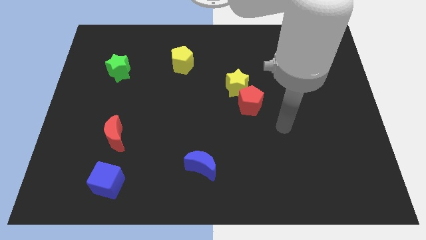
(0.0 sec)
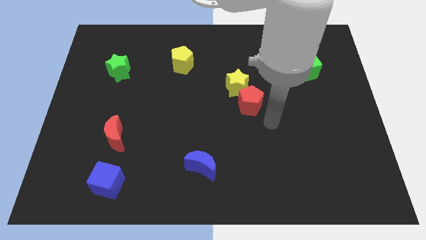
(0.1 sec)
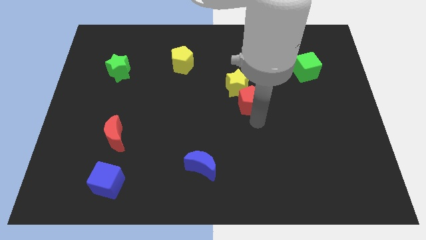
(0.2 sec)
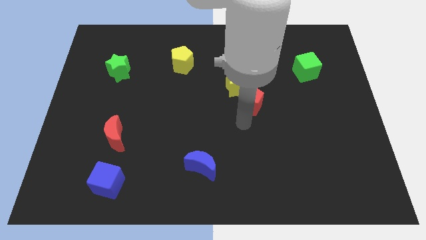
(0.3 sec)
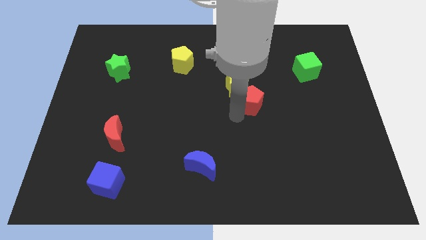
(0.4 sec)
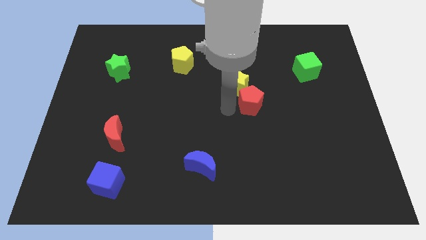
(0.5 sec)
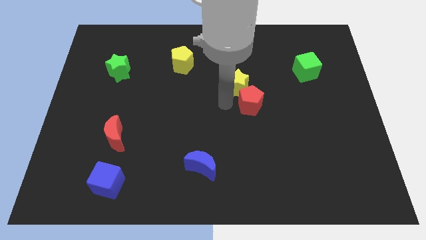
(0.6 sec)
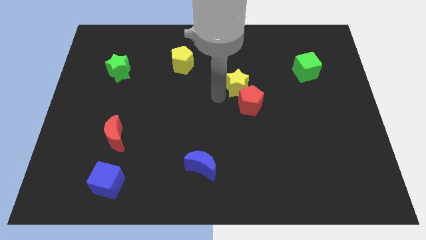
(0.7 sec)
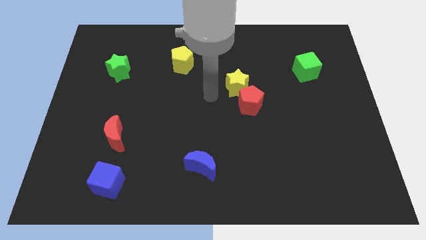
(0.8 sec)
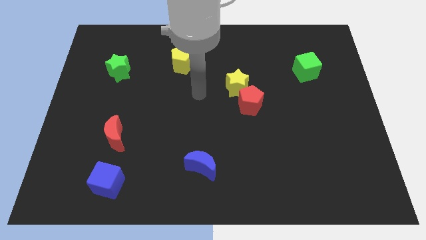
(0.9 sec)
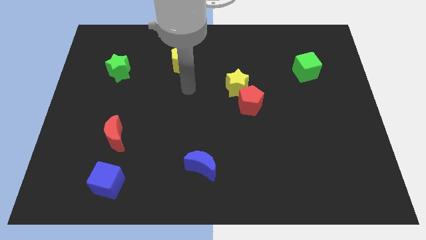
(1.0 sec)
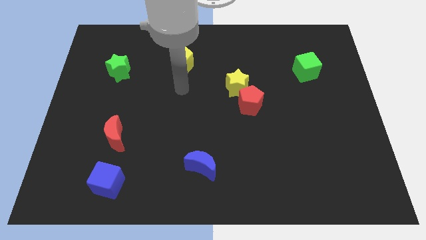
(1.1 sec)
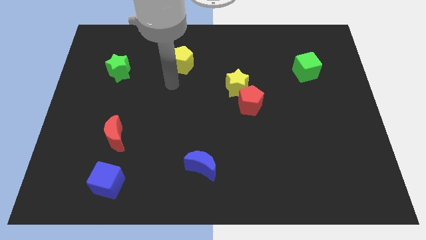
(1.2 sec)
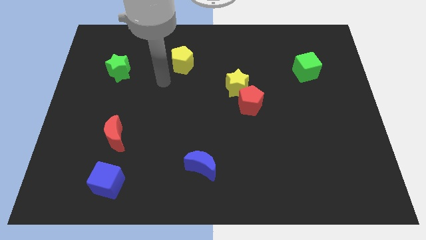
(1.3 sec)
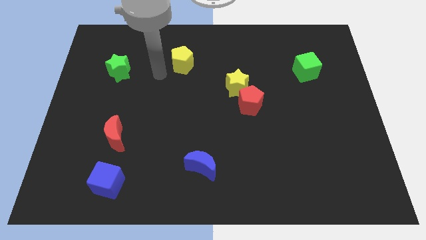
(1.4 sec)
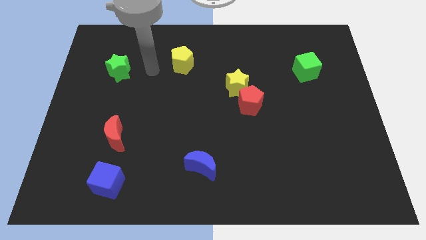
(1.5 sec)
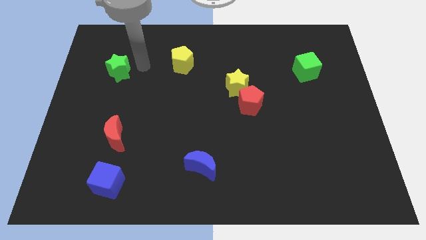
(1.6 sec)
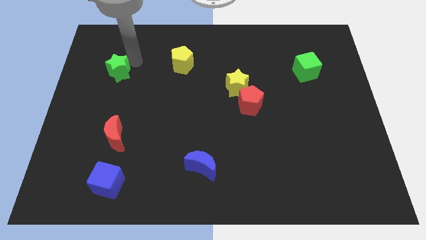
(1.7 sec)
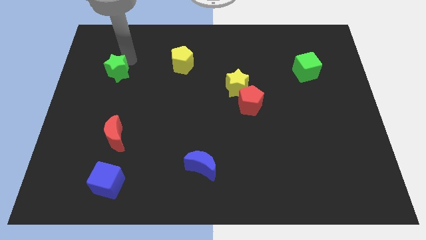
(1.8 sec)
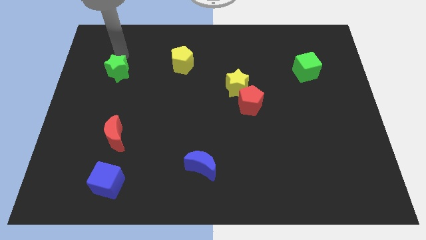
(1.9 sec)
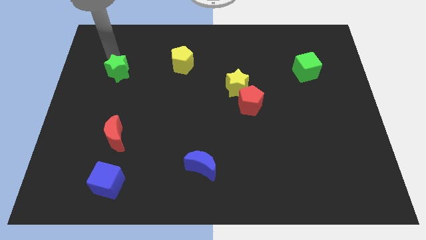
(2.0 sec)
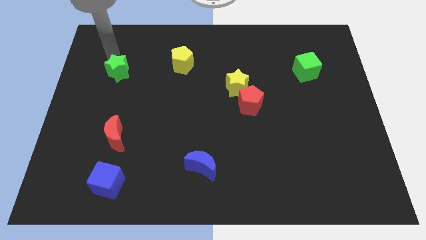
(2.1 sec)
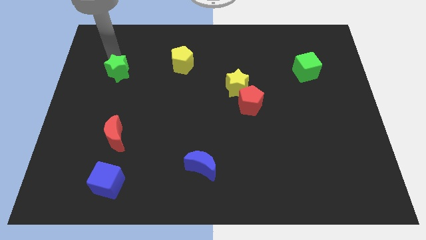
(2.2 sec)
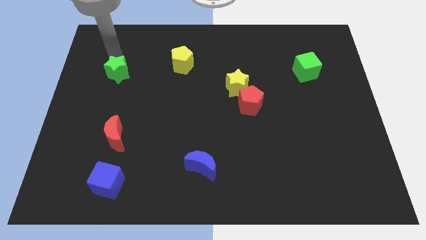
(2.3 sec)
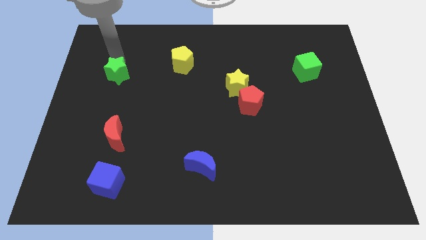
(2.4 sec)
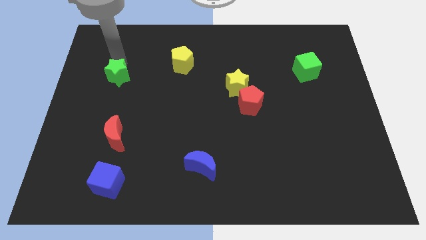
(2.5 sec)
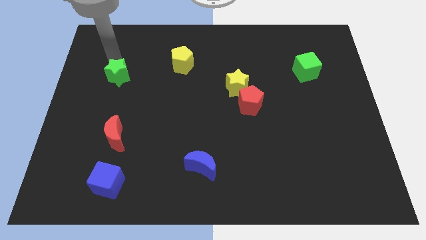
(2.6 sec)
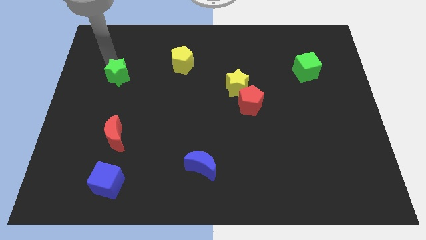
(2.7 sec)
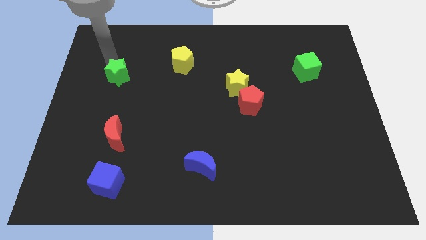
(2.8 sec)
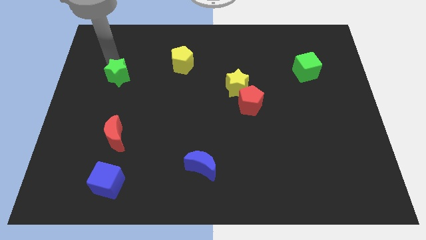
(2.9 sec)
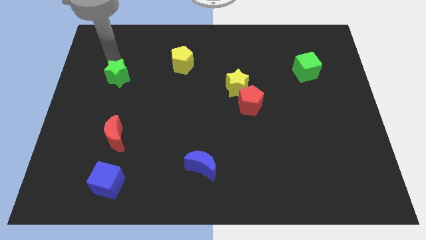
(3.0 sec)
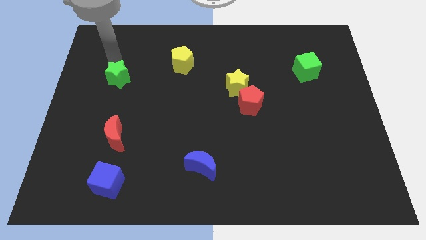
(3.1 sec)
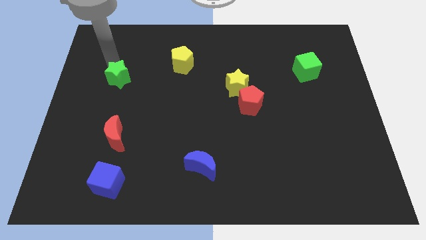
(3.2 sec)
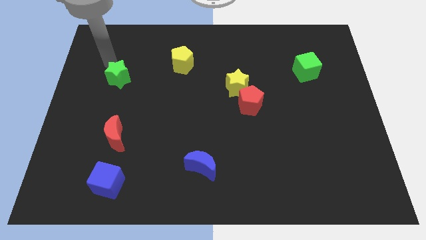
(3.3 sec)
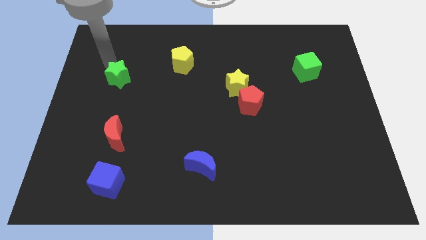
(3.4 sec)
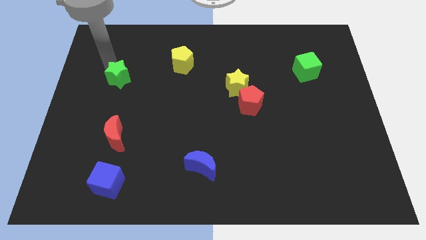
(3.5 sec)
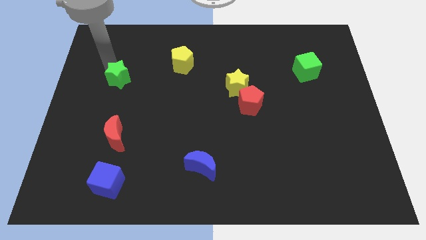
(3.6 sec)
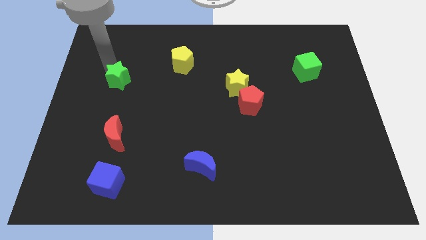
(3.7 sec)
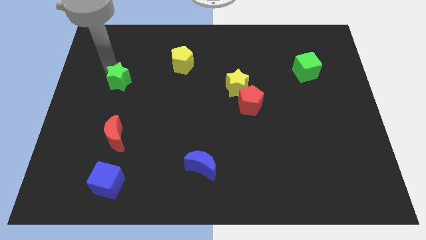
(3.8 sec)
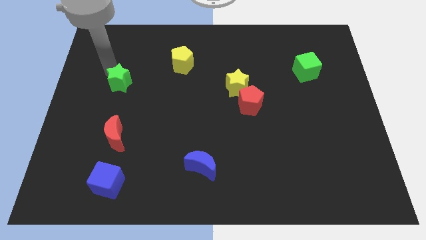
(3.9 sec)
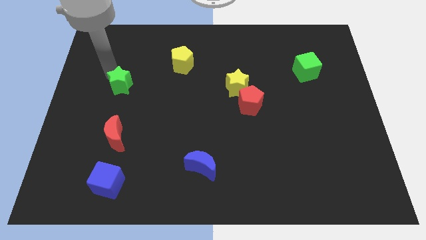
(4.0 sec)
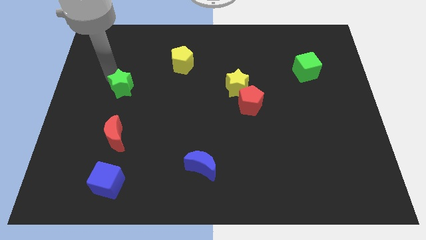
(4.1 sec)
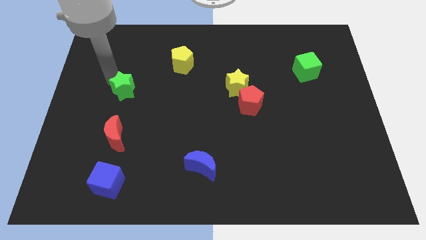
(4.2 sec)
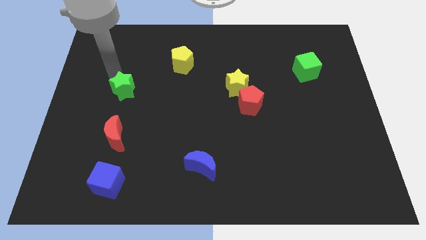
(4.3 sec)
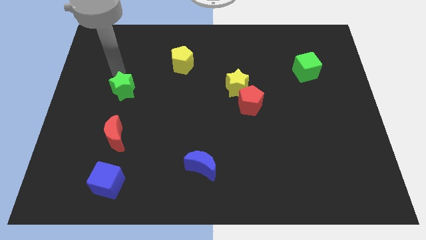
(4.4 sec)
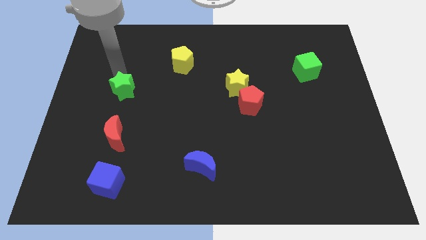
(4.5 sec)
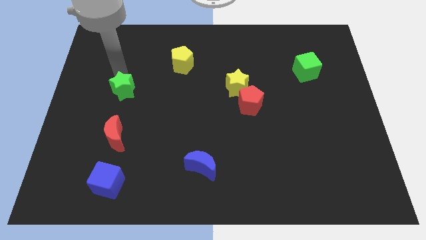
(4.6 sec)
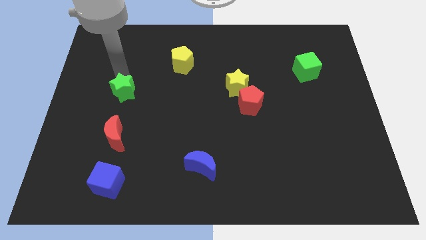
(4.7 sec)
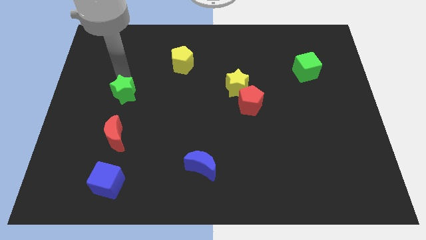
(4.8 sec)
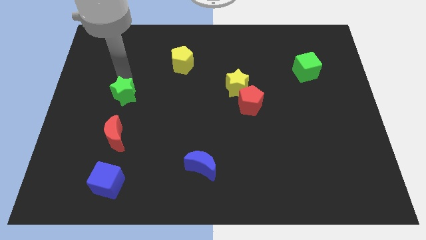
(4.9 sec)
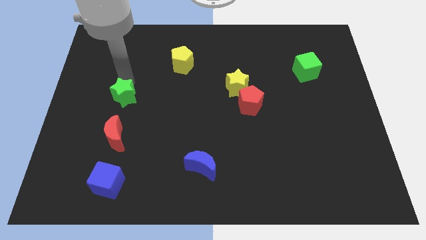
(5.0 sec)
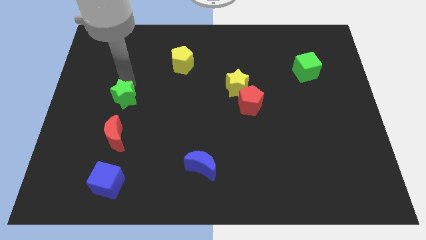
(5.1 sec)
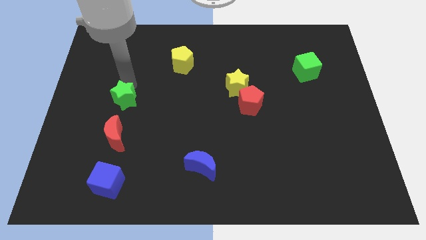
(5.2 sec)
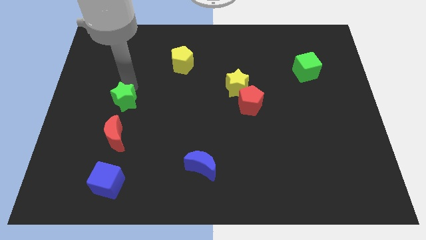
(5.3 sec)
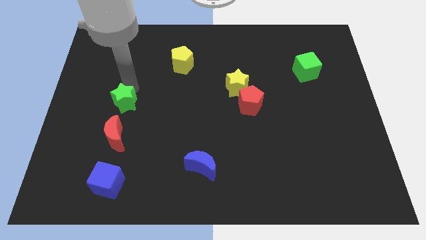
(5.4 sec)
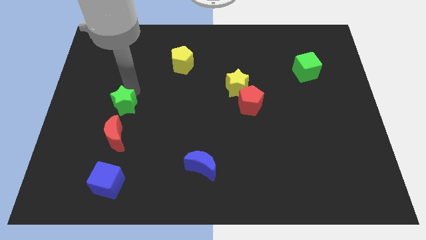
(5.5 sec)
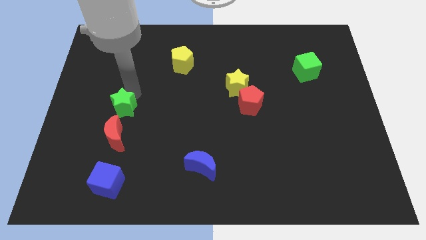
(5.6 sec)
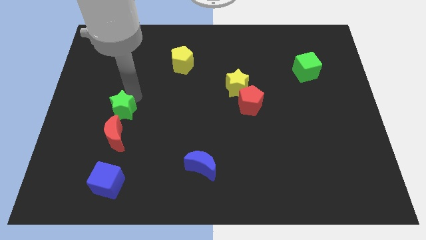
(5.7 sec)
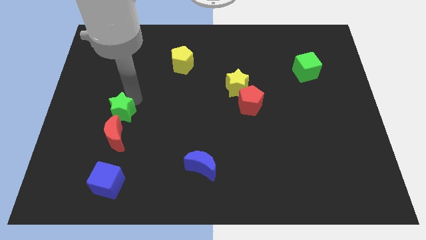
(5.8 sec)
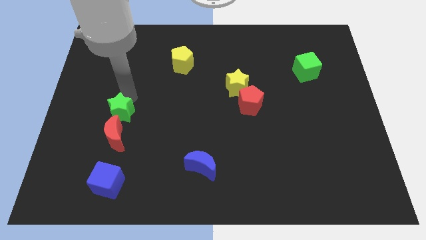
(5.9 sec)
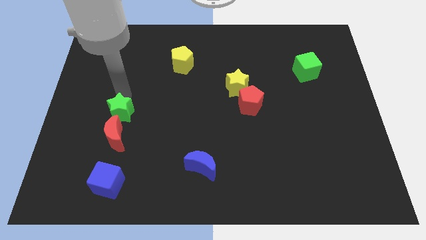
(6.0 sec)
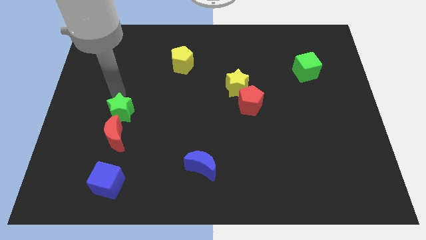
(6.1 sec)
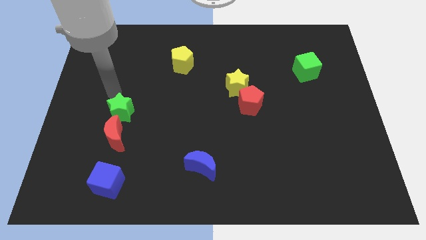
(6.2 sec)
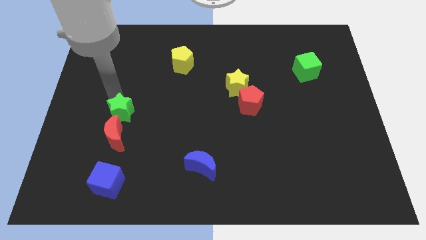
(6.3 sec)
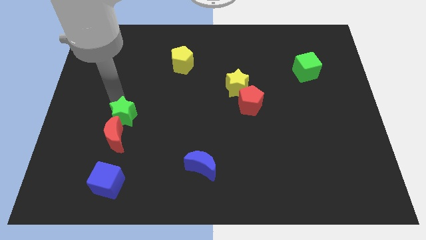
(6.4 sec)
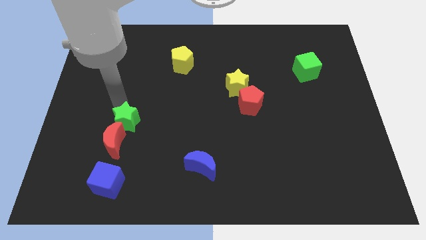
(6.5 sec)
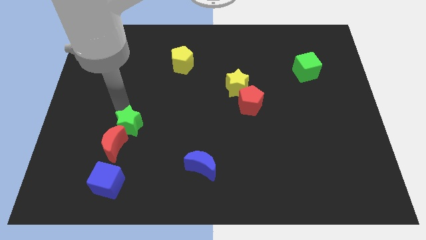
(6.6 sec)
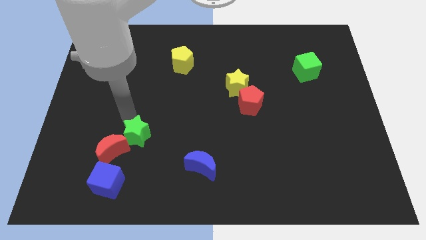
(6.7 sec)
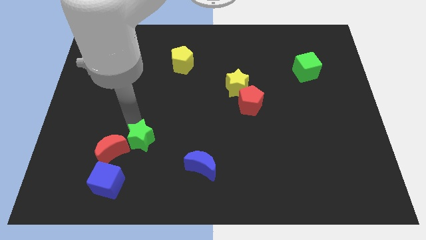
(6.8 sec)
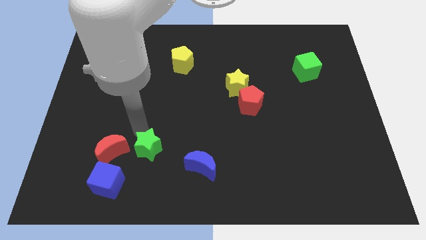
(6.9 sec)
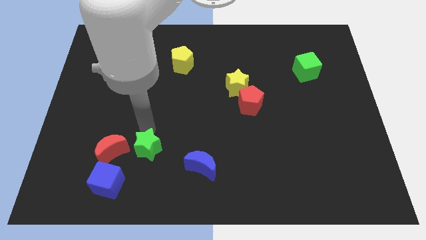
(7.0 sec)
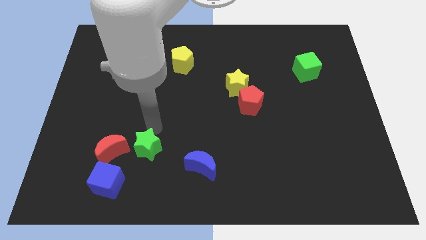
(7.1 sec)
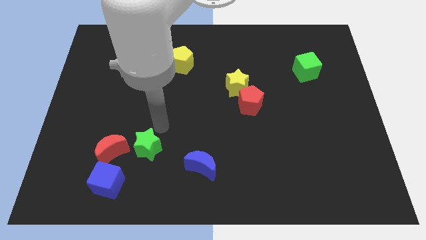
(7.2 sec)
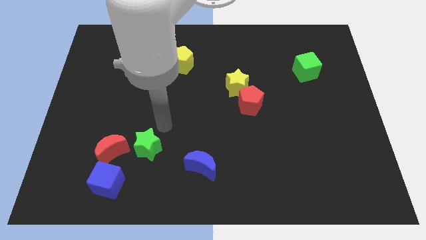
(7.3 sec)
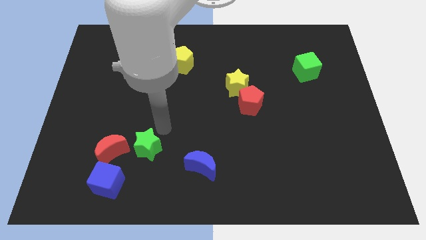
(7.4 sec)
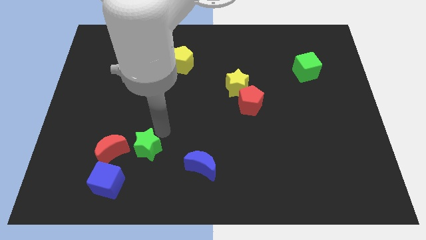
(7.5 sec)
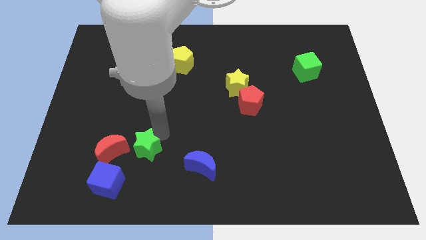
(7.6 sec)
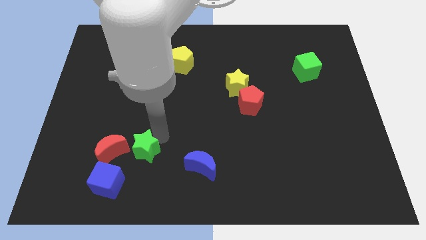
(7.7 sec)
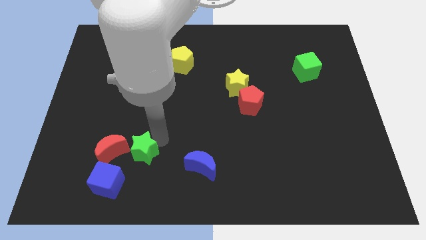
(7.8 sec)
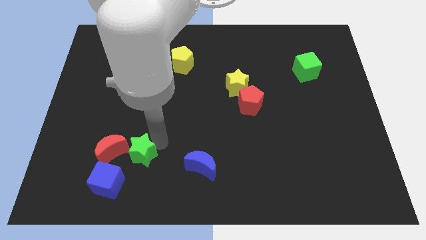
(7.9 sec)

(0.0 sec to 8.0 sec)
push the green star diagonally down and to the right of the red moon
